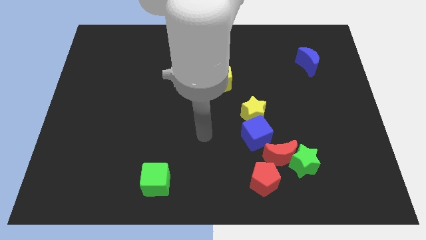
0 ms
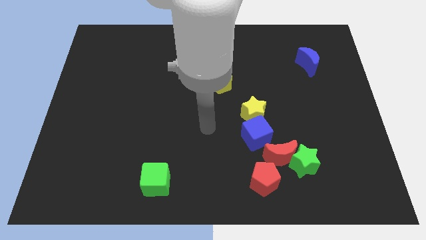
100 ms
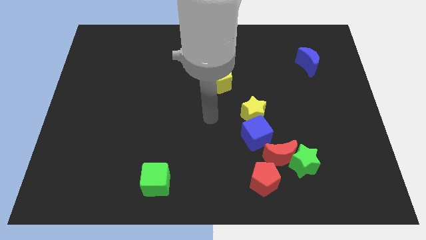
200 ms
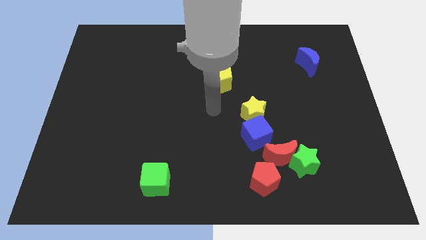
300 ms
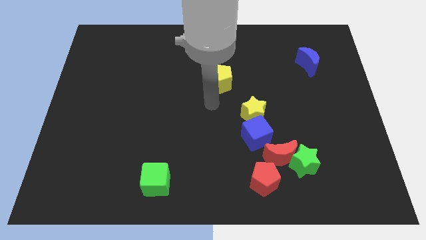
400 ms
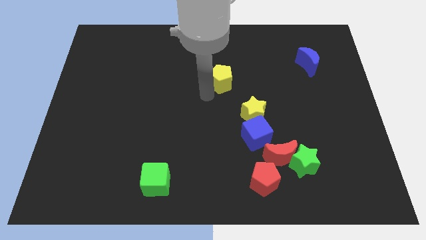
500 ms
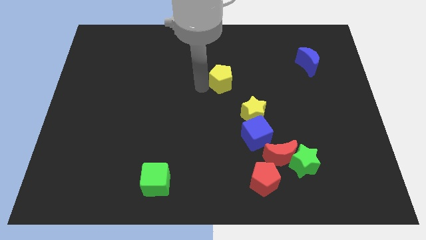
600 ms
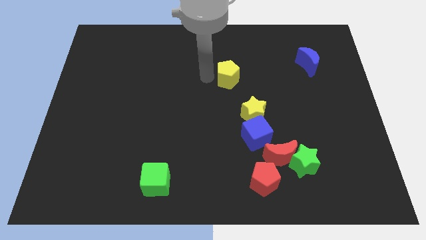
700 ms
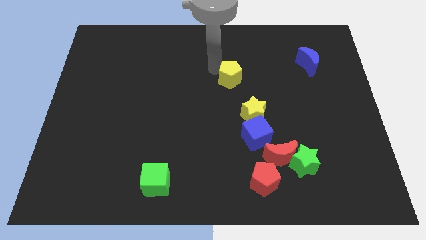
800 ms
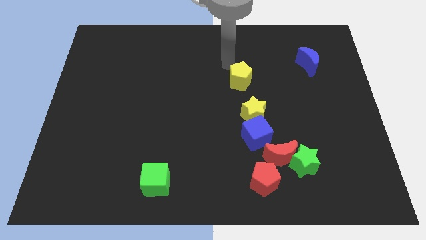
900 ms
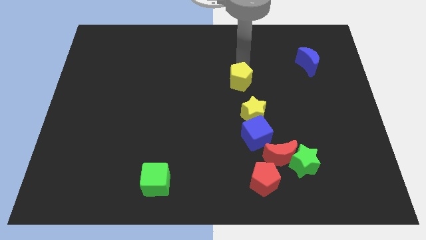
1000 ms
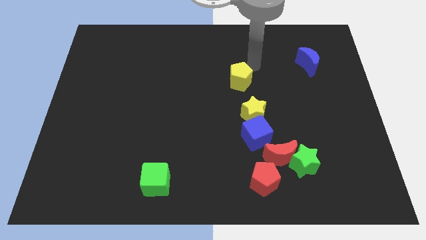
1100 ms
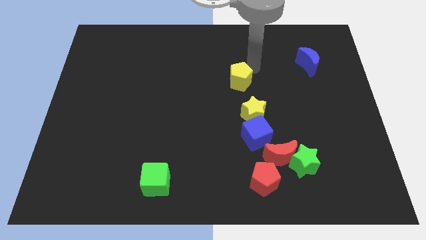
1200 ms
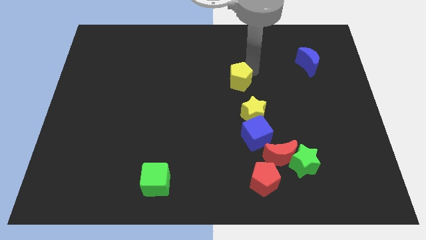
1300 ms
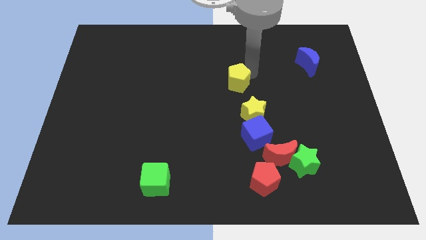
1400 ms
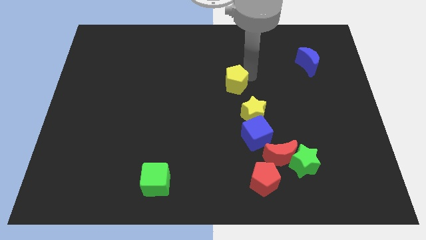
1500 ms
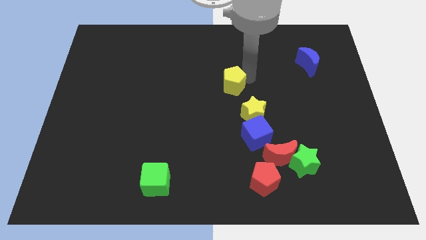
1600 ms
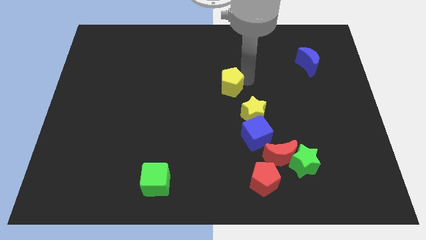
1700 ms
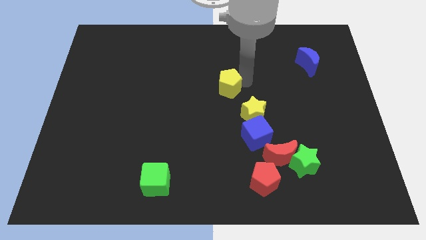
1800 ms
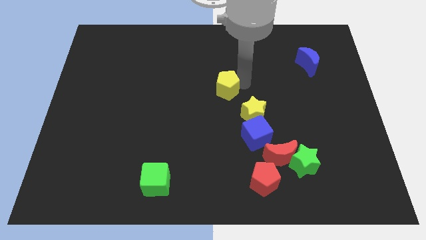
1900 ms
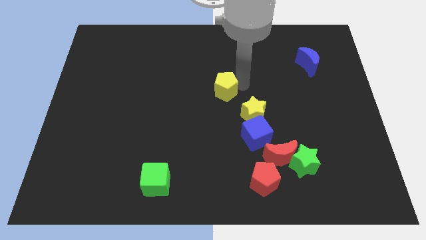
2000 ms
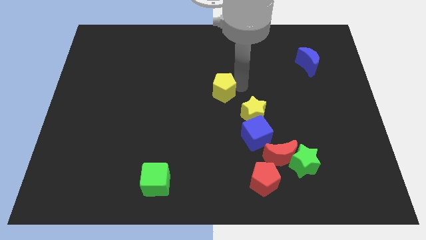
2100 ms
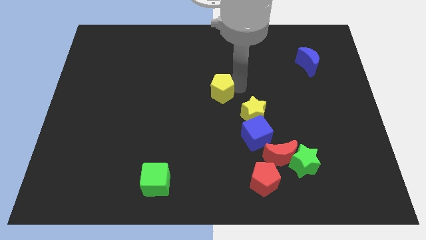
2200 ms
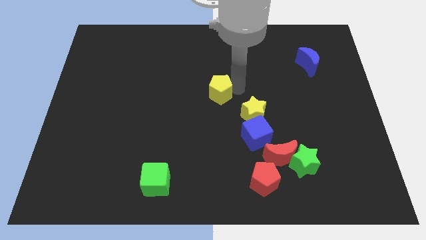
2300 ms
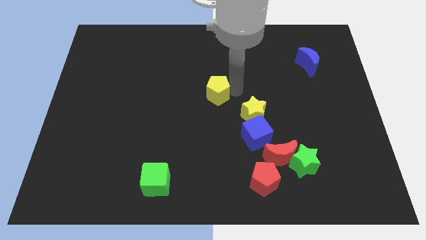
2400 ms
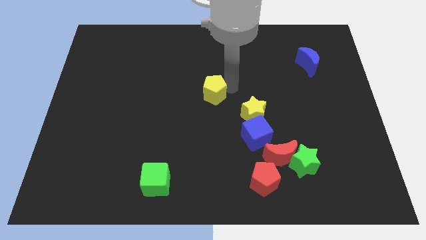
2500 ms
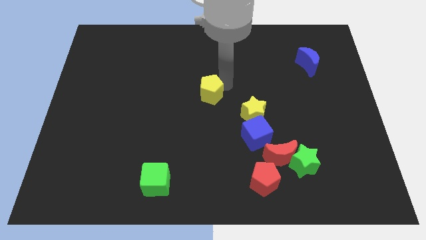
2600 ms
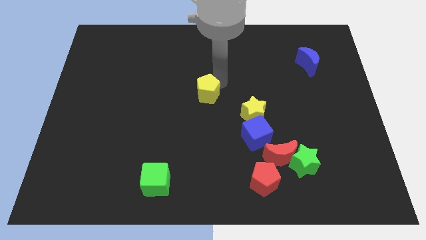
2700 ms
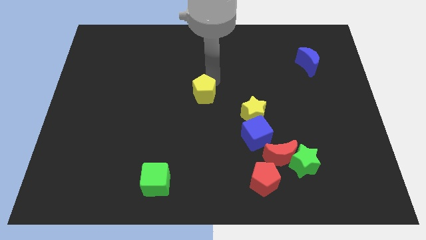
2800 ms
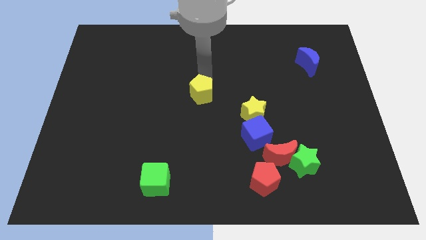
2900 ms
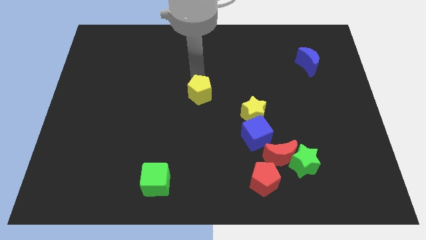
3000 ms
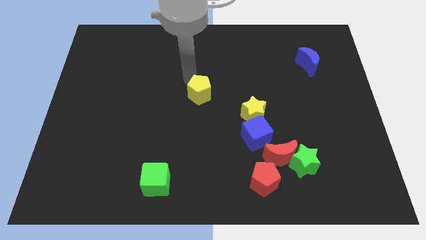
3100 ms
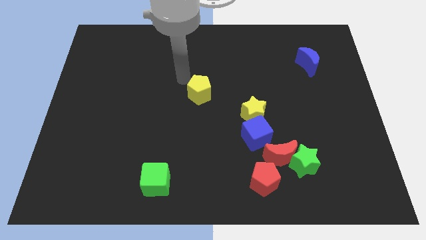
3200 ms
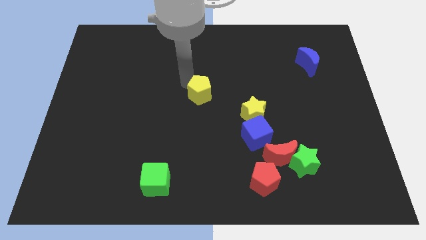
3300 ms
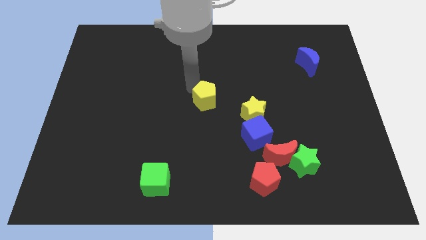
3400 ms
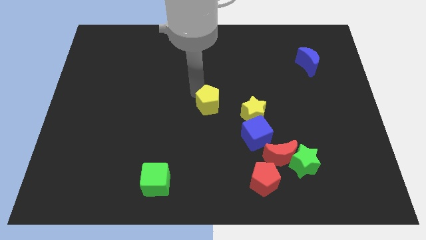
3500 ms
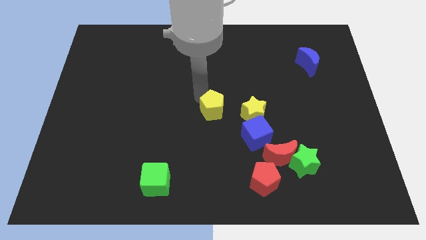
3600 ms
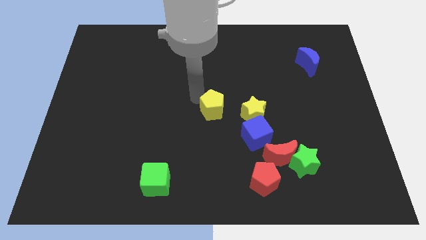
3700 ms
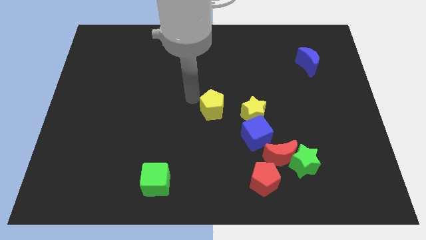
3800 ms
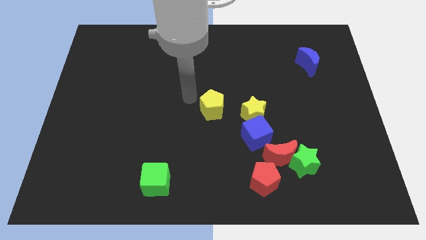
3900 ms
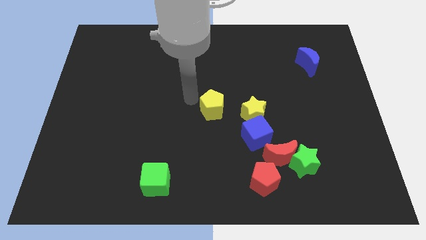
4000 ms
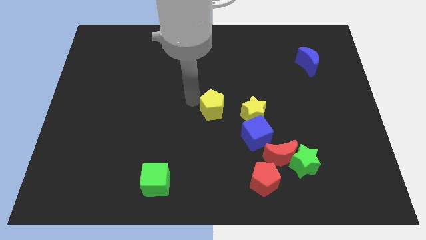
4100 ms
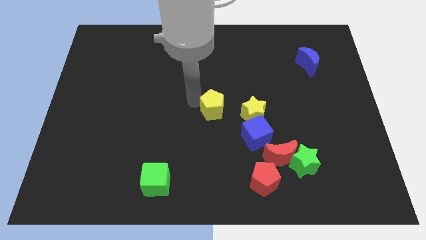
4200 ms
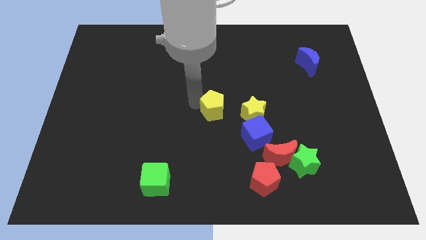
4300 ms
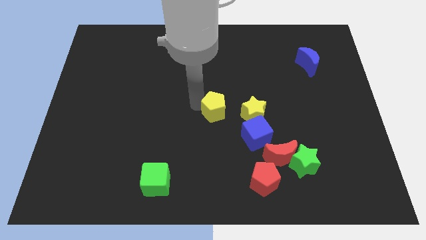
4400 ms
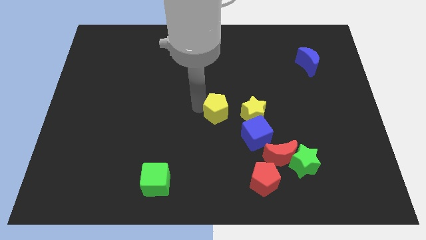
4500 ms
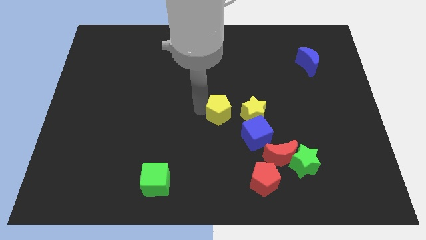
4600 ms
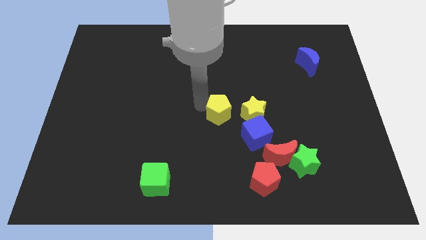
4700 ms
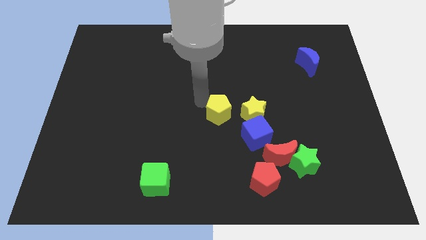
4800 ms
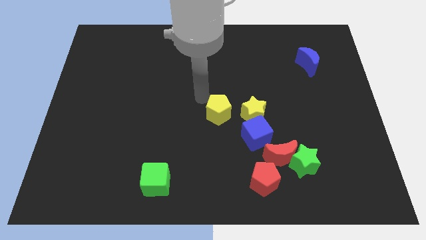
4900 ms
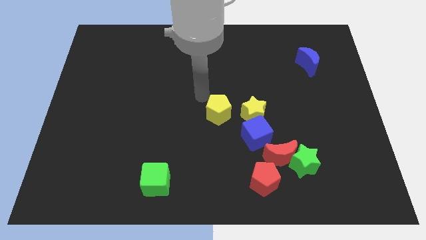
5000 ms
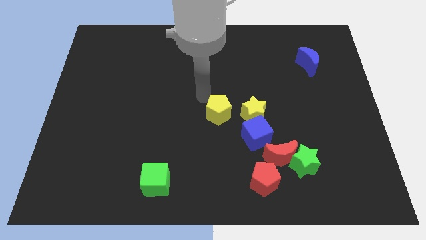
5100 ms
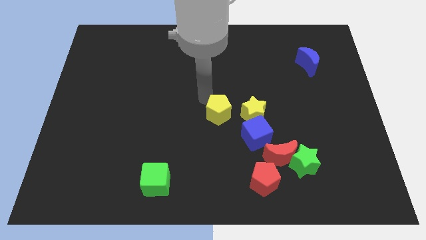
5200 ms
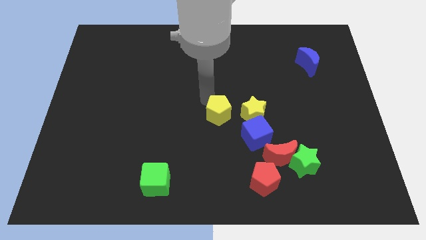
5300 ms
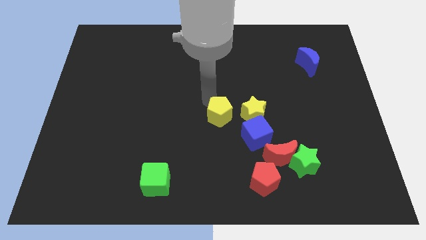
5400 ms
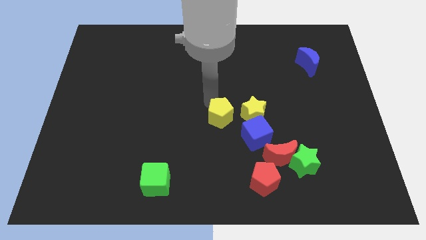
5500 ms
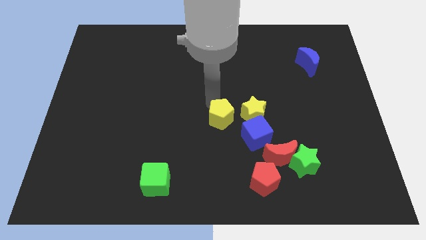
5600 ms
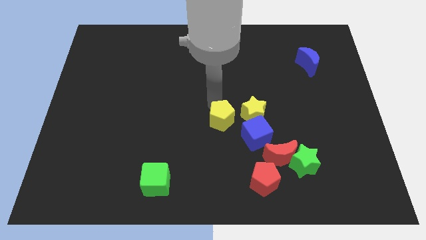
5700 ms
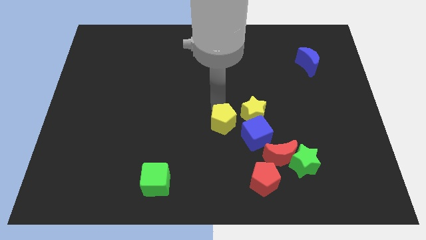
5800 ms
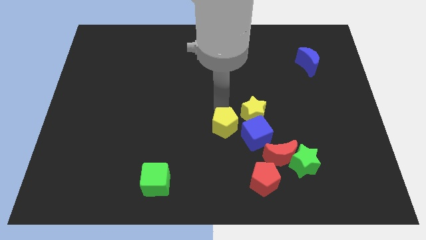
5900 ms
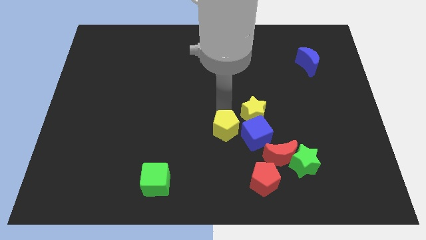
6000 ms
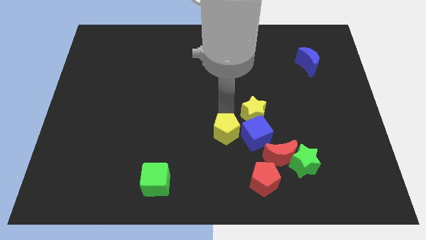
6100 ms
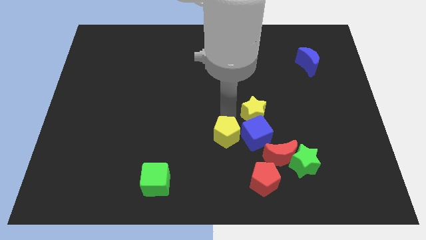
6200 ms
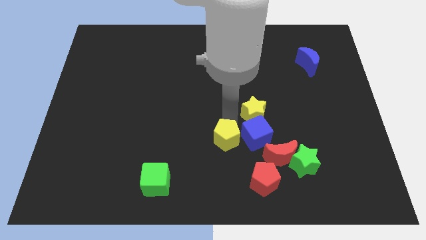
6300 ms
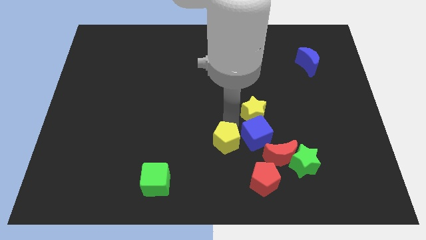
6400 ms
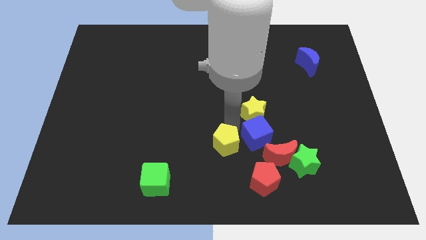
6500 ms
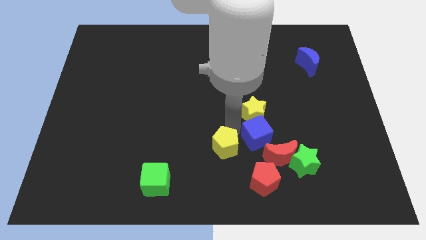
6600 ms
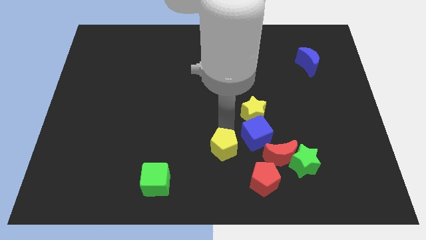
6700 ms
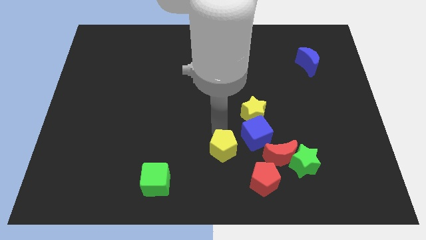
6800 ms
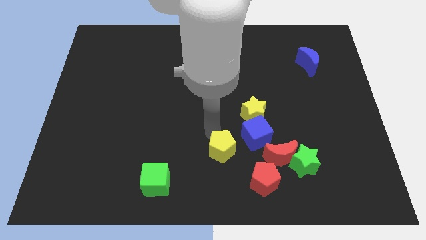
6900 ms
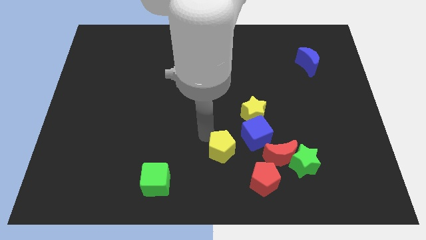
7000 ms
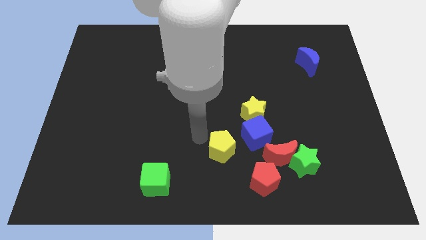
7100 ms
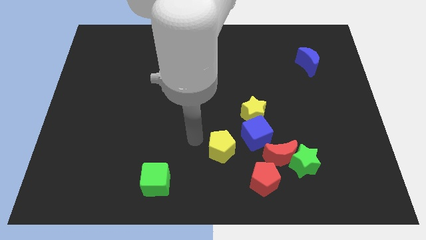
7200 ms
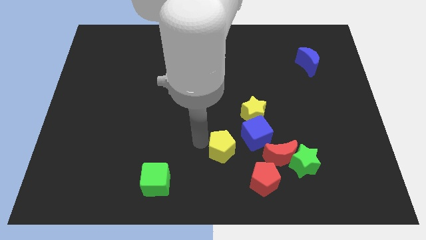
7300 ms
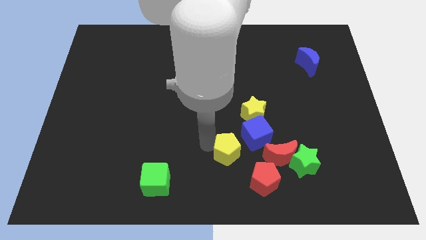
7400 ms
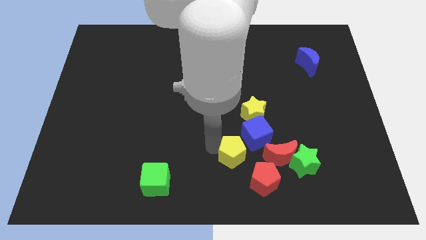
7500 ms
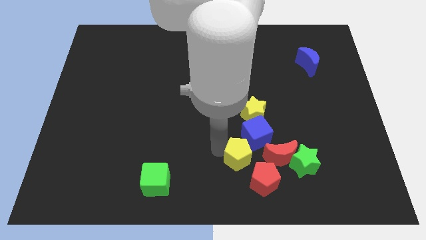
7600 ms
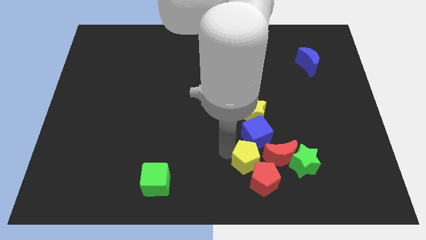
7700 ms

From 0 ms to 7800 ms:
move the yellow pentagon to the red pentagon

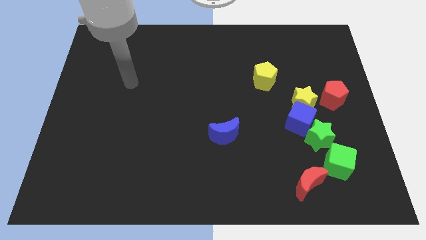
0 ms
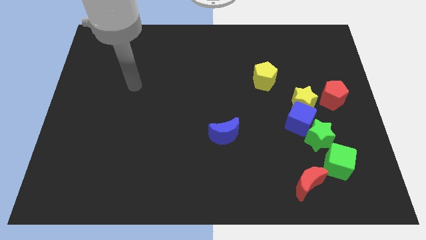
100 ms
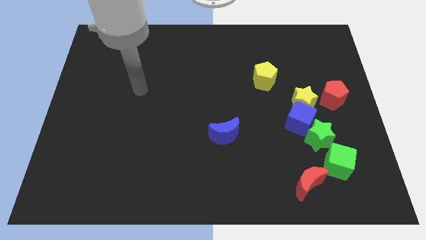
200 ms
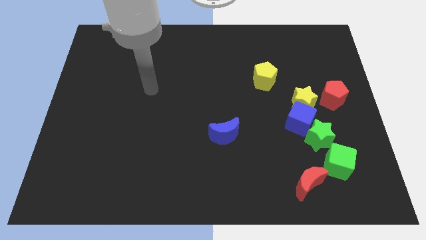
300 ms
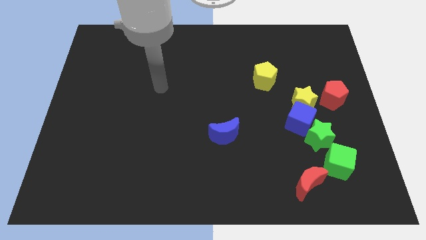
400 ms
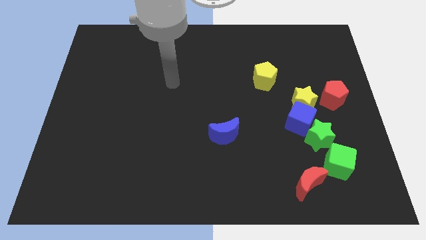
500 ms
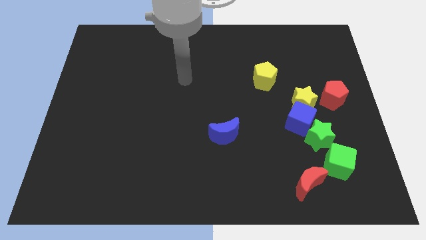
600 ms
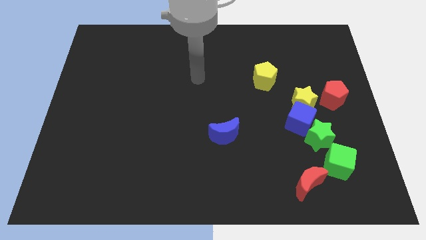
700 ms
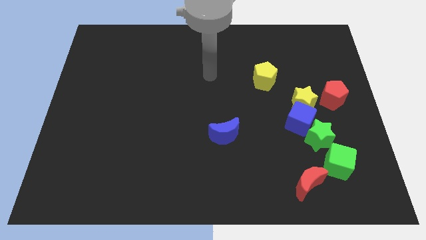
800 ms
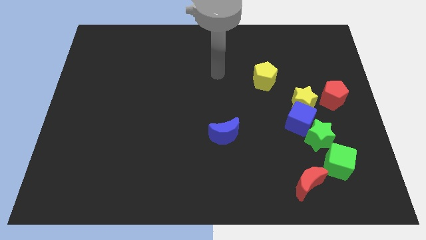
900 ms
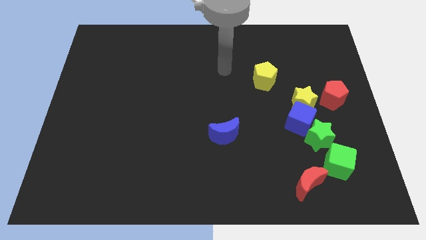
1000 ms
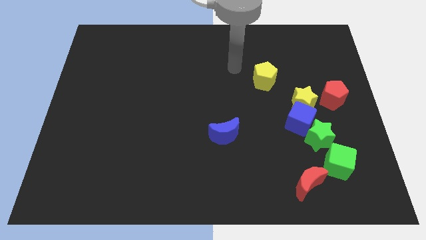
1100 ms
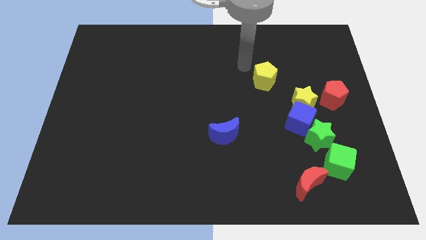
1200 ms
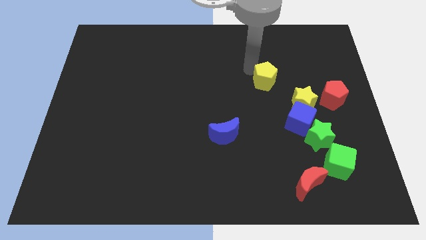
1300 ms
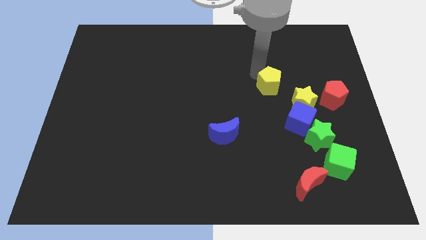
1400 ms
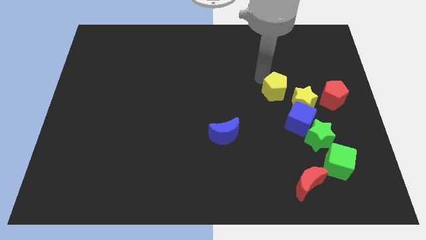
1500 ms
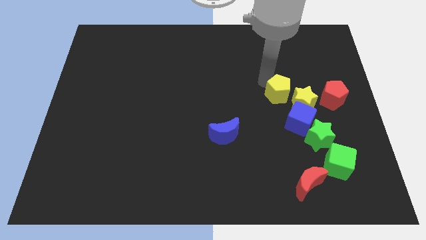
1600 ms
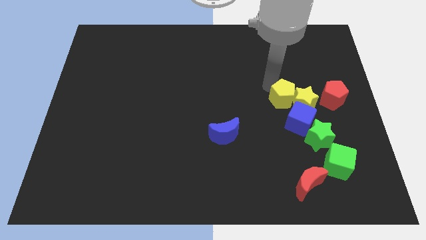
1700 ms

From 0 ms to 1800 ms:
slide the yellow pentagon next to the yellow star
